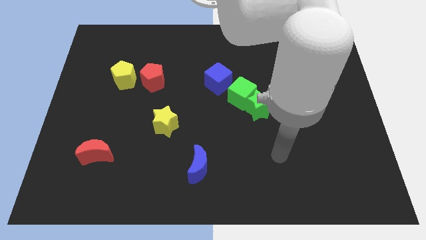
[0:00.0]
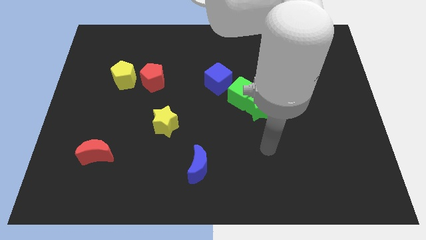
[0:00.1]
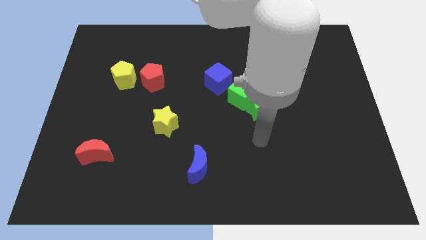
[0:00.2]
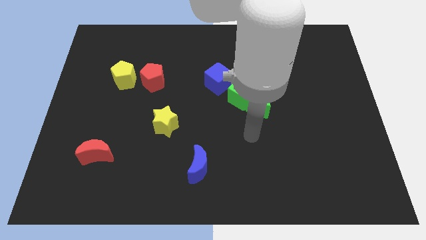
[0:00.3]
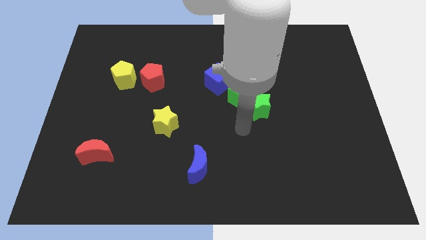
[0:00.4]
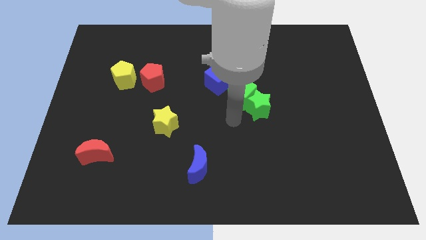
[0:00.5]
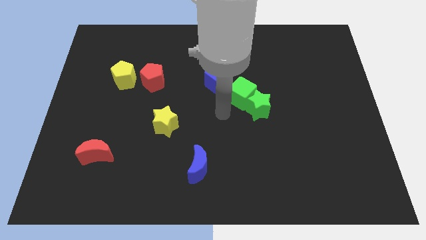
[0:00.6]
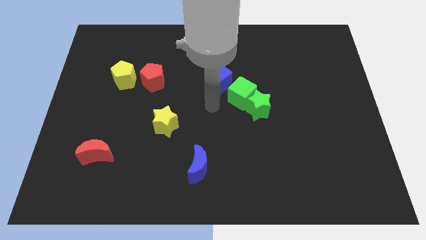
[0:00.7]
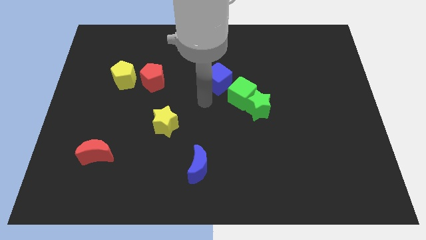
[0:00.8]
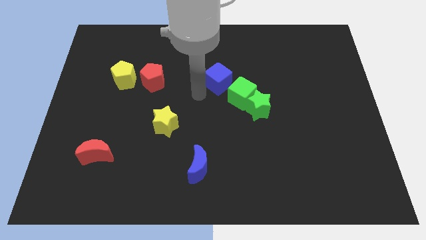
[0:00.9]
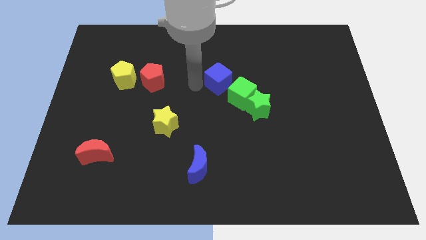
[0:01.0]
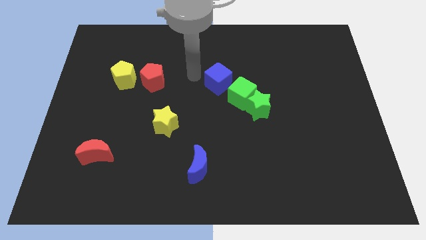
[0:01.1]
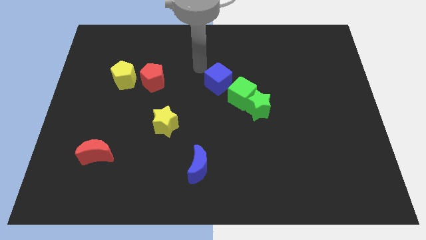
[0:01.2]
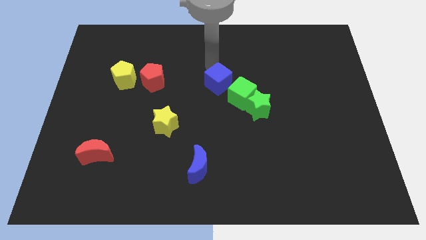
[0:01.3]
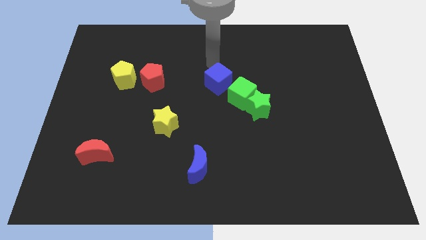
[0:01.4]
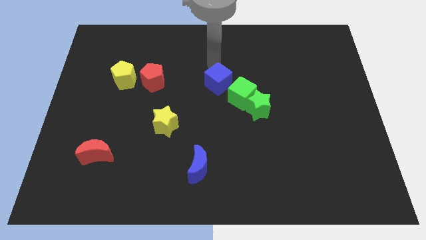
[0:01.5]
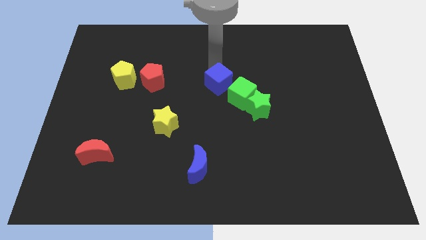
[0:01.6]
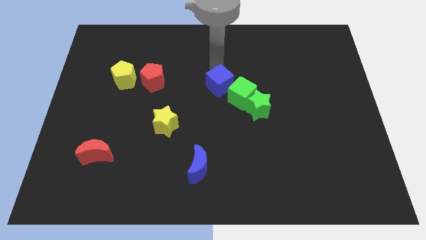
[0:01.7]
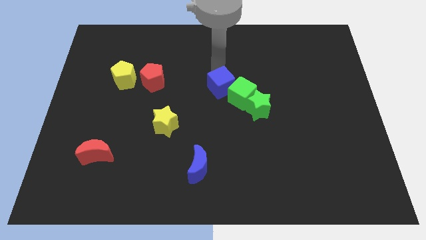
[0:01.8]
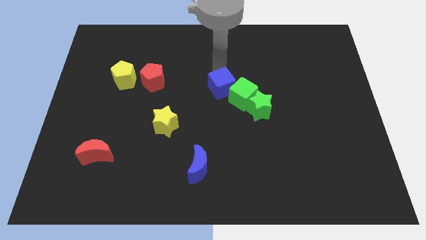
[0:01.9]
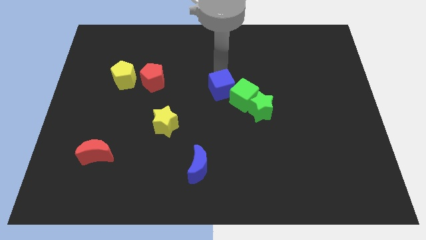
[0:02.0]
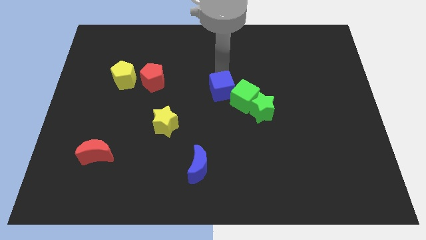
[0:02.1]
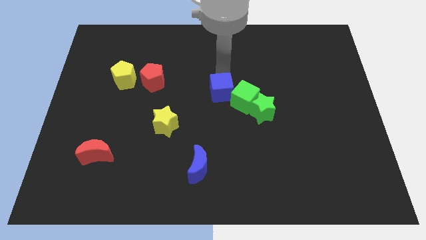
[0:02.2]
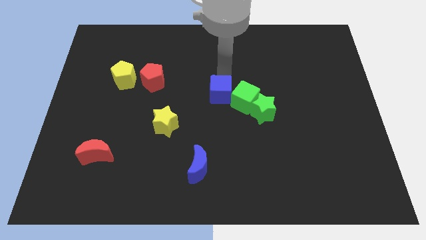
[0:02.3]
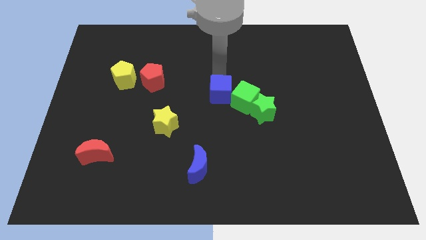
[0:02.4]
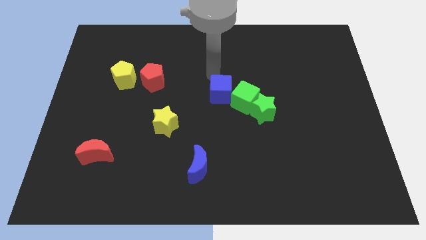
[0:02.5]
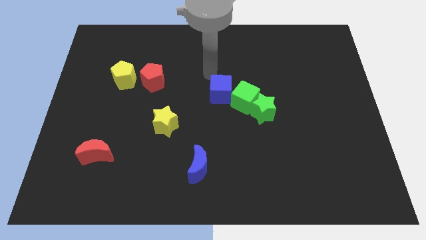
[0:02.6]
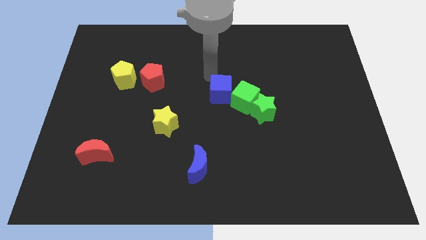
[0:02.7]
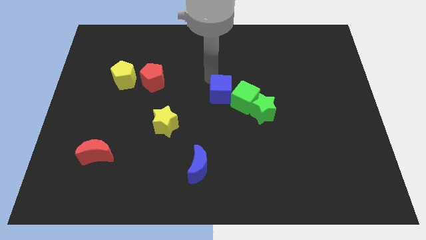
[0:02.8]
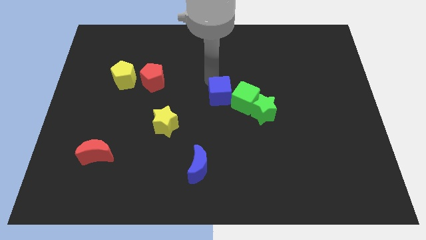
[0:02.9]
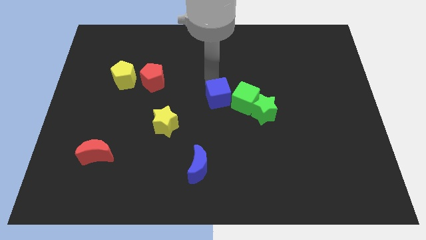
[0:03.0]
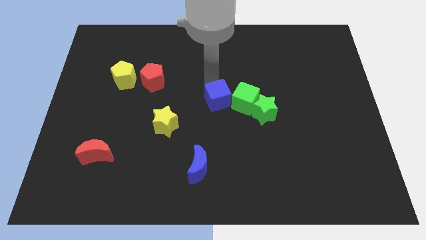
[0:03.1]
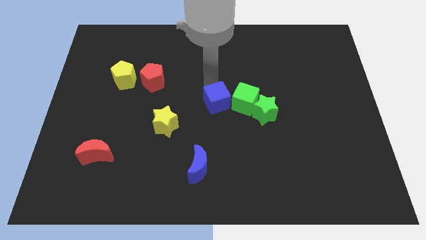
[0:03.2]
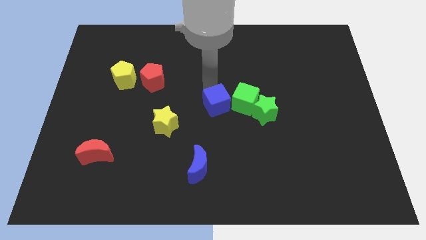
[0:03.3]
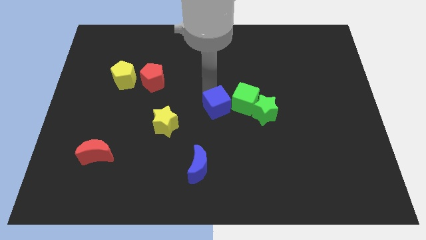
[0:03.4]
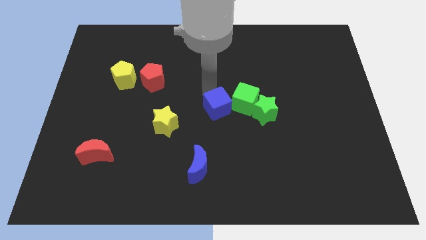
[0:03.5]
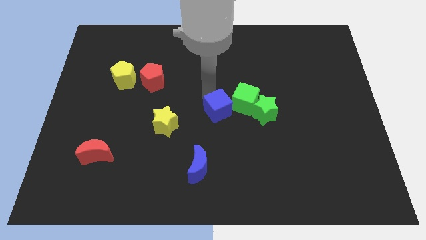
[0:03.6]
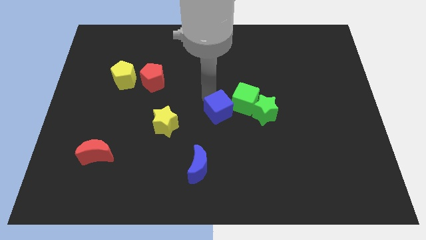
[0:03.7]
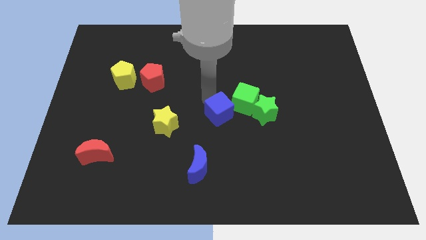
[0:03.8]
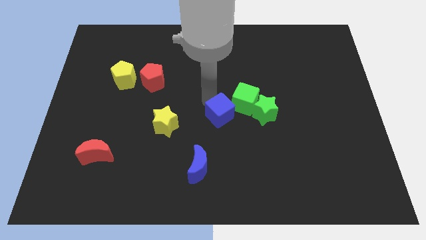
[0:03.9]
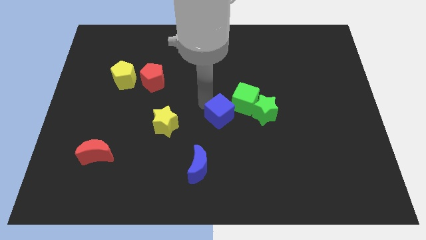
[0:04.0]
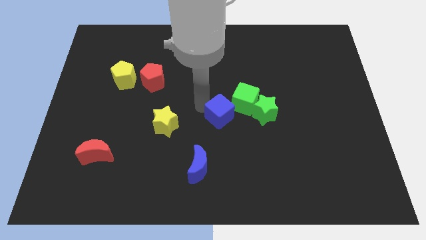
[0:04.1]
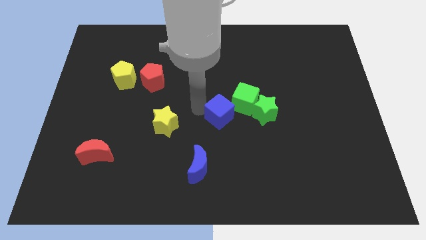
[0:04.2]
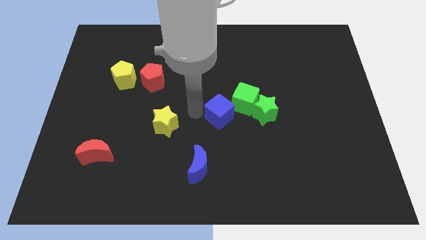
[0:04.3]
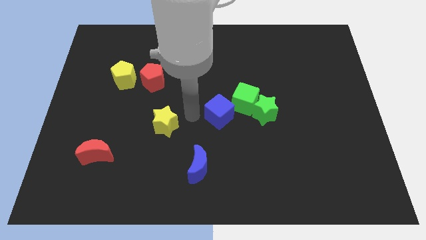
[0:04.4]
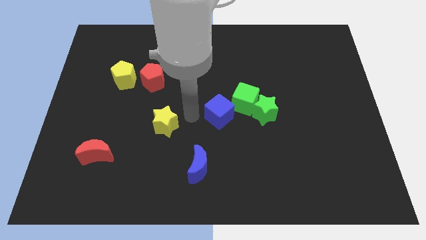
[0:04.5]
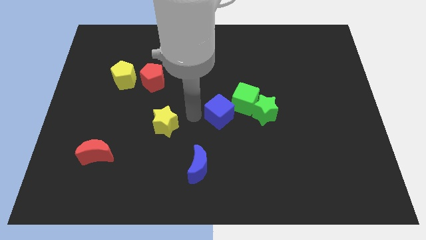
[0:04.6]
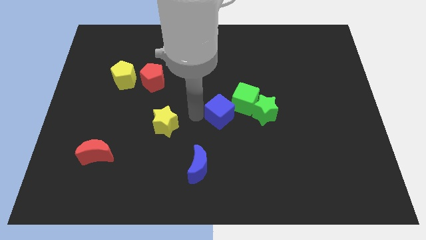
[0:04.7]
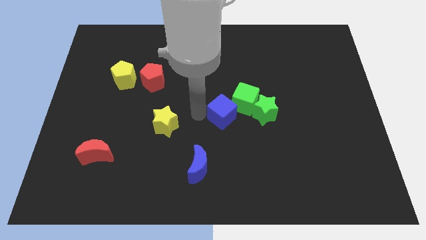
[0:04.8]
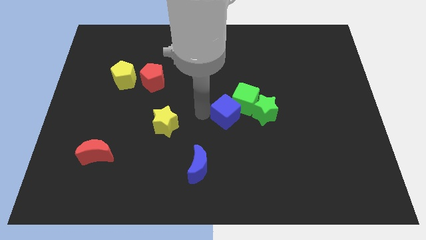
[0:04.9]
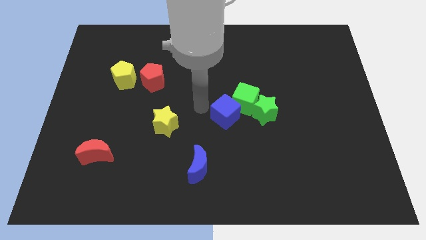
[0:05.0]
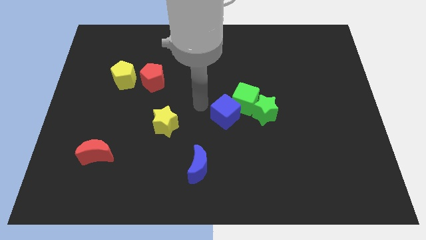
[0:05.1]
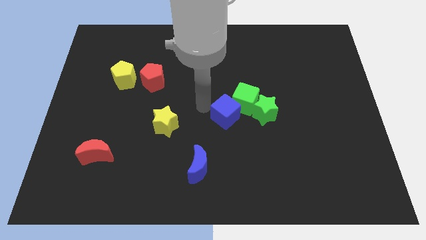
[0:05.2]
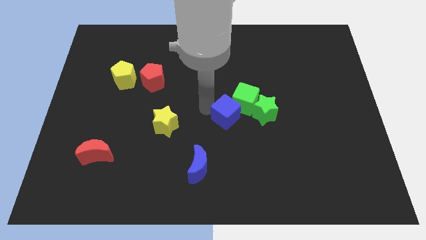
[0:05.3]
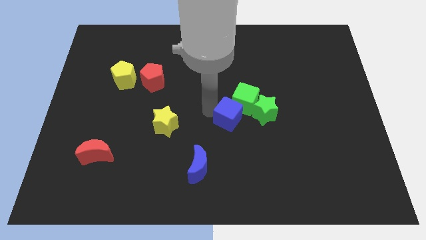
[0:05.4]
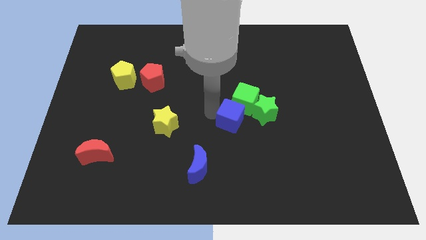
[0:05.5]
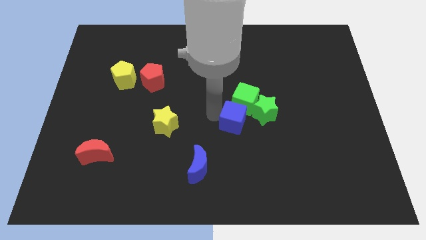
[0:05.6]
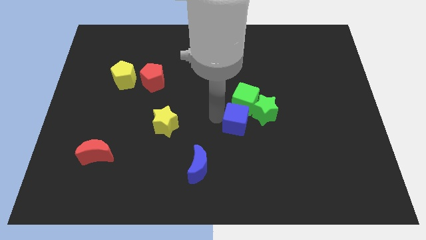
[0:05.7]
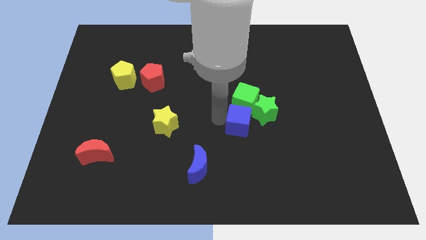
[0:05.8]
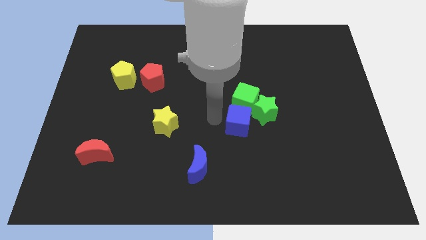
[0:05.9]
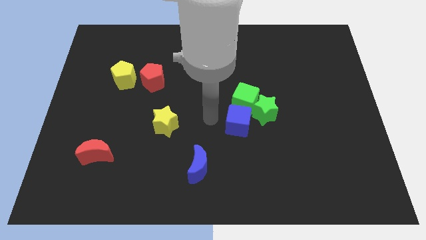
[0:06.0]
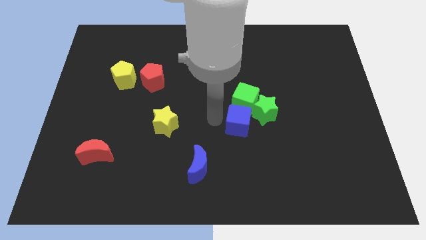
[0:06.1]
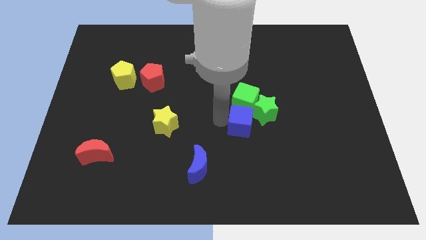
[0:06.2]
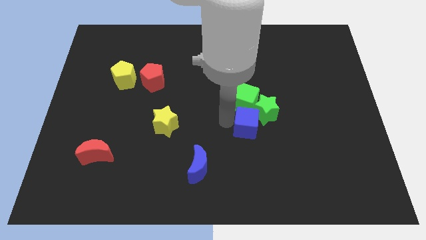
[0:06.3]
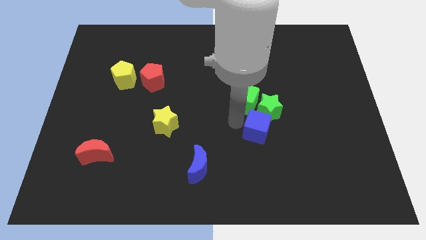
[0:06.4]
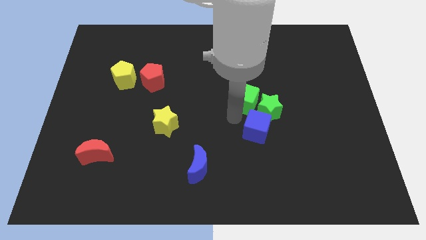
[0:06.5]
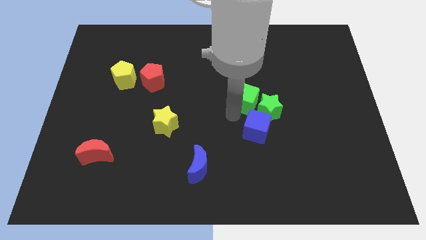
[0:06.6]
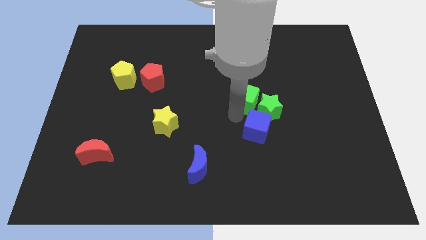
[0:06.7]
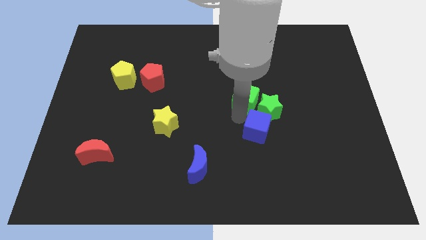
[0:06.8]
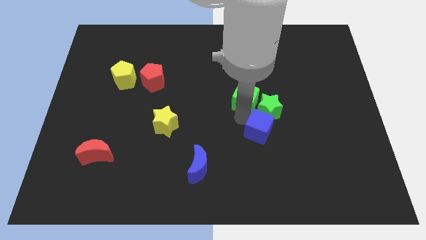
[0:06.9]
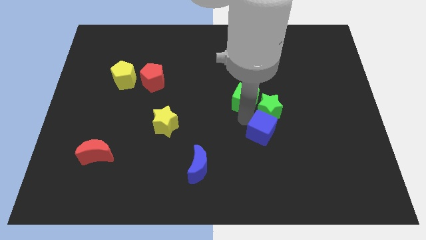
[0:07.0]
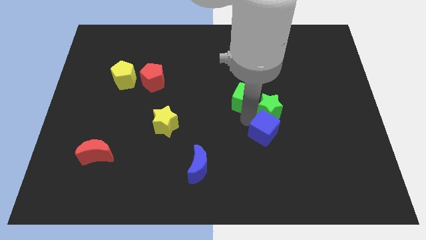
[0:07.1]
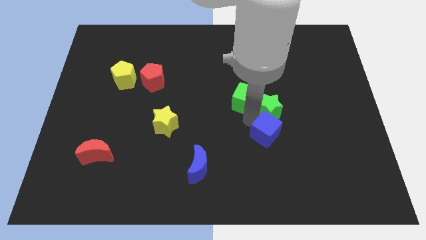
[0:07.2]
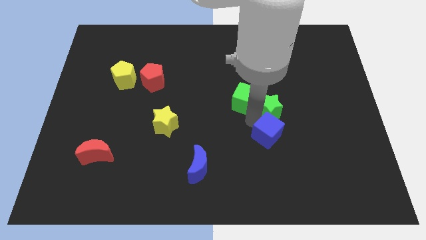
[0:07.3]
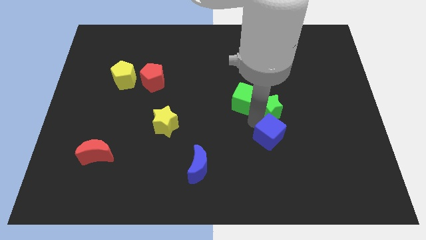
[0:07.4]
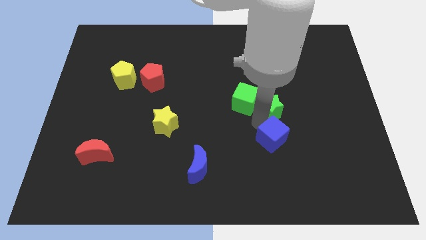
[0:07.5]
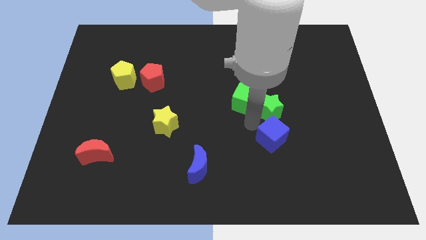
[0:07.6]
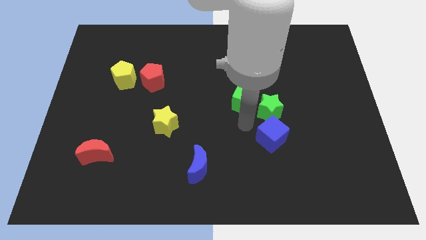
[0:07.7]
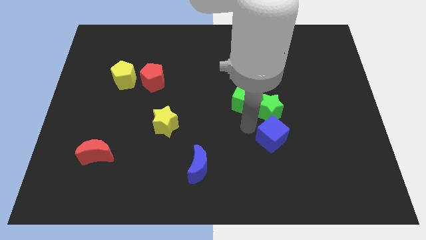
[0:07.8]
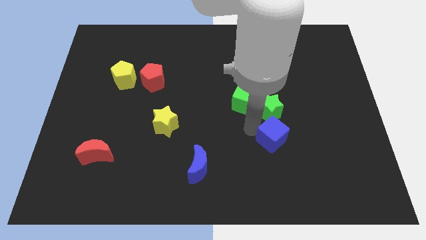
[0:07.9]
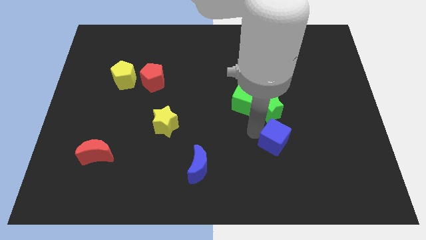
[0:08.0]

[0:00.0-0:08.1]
push the blue cube down and right
